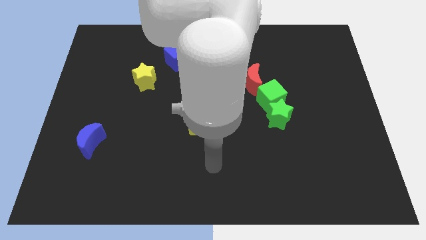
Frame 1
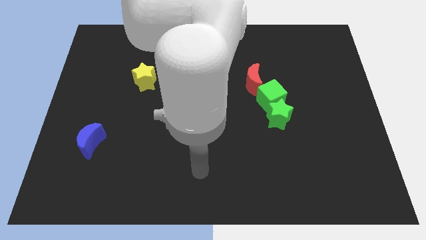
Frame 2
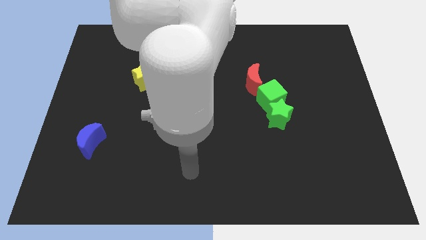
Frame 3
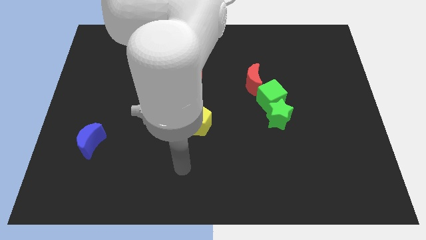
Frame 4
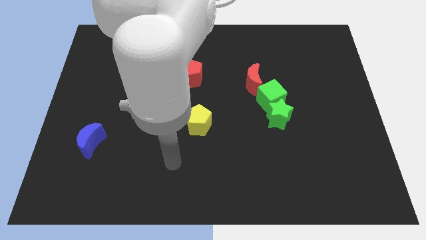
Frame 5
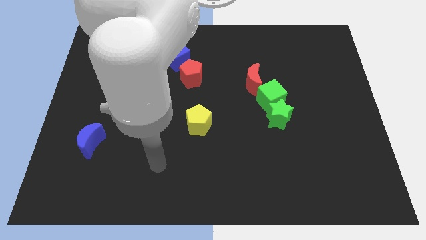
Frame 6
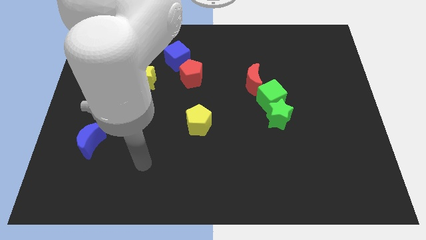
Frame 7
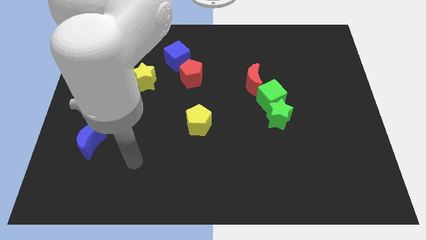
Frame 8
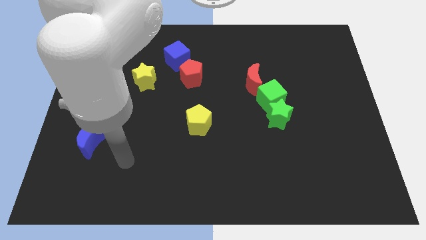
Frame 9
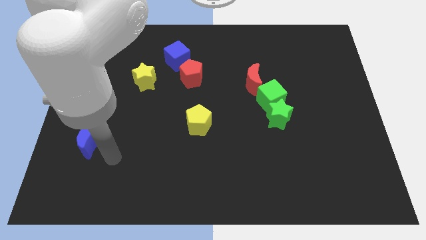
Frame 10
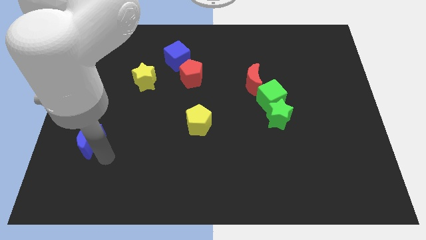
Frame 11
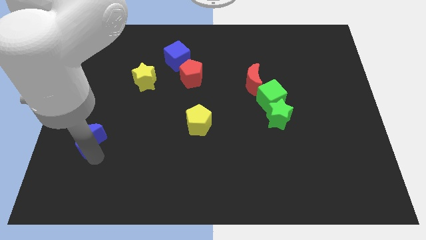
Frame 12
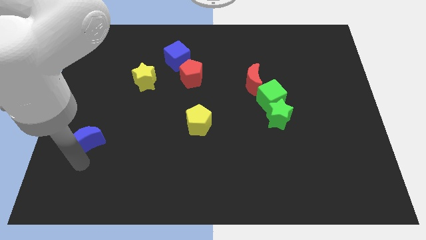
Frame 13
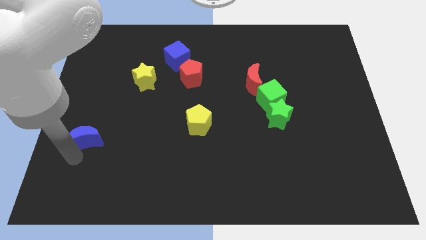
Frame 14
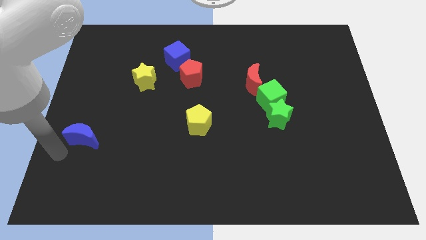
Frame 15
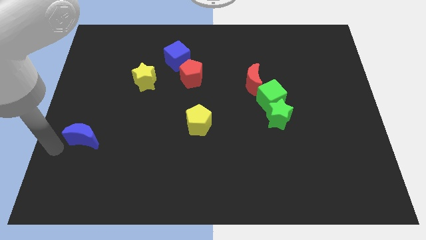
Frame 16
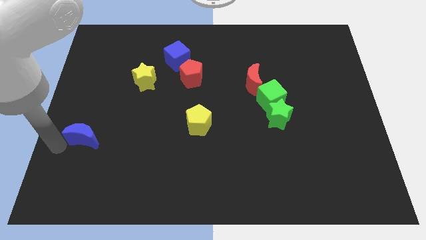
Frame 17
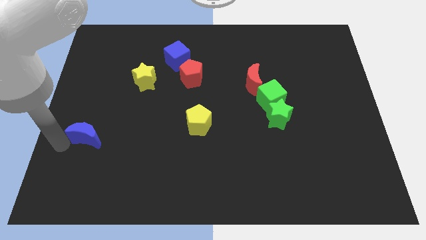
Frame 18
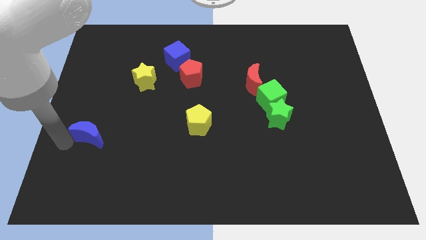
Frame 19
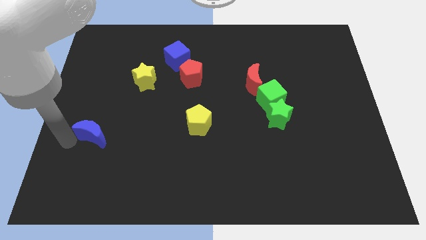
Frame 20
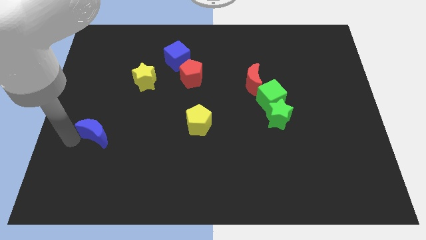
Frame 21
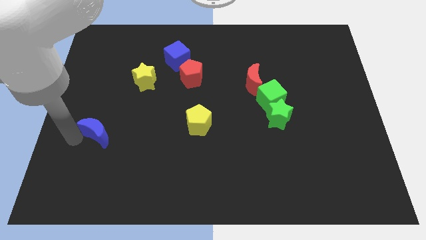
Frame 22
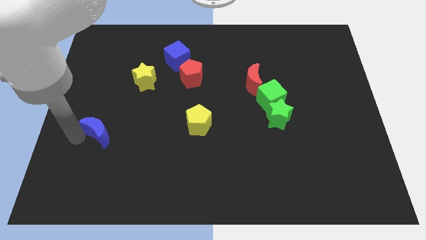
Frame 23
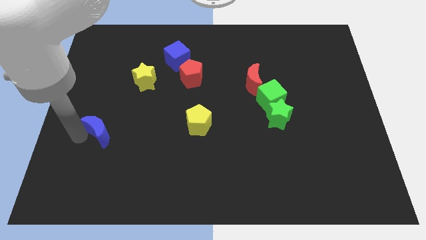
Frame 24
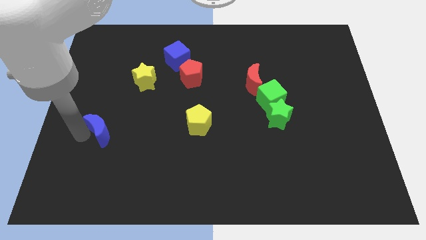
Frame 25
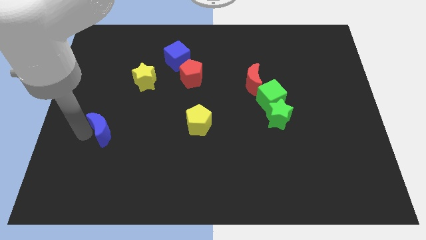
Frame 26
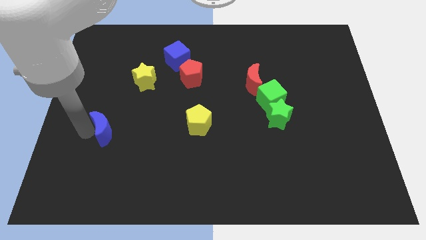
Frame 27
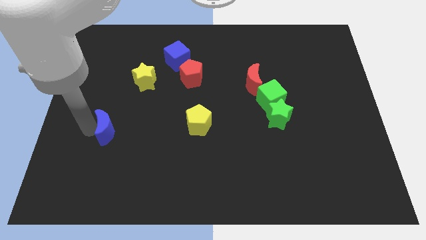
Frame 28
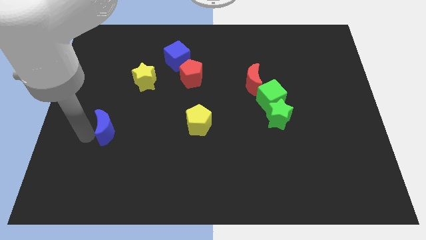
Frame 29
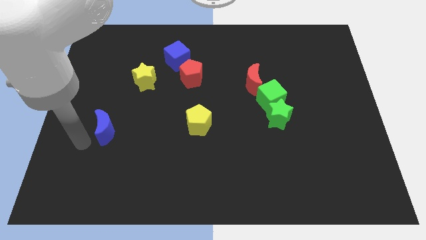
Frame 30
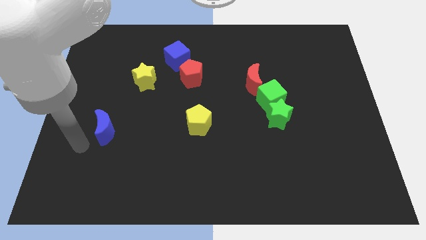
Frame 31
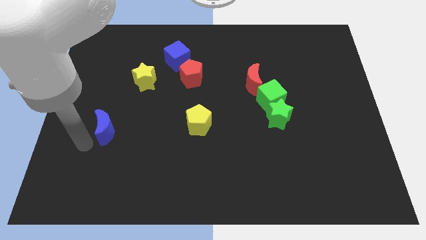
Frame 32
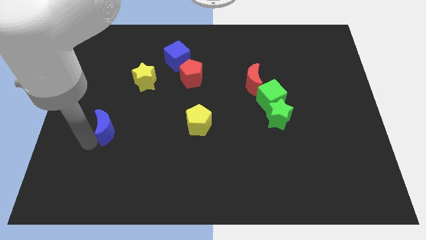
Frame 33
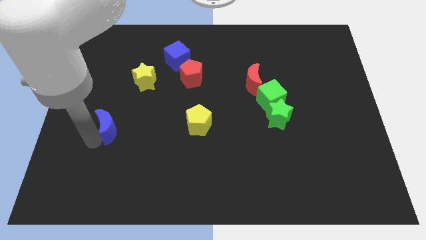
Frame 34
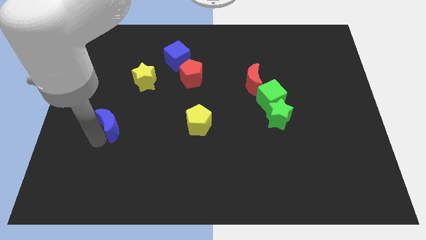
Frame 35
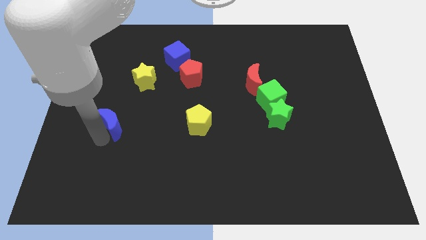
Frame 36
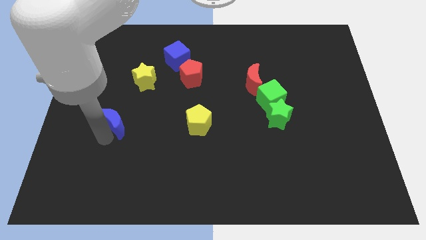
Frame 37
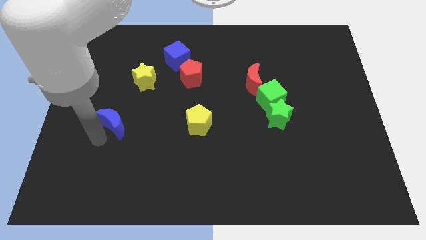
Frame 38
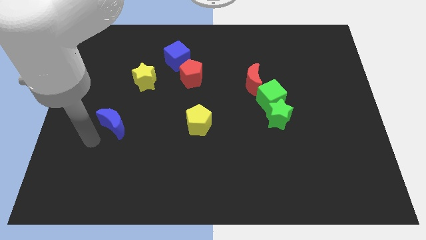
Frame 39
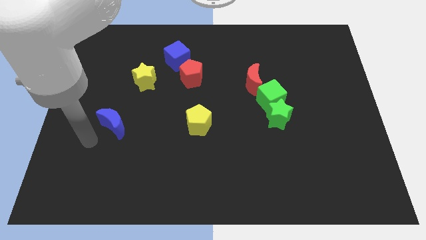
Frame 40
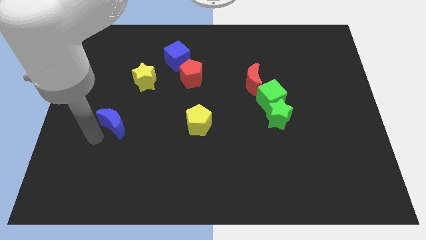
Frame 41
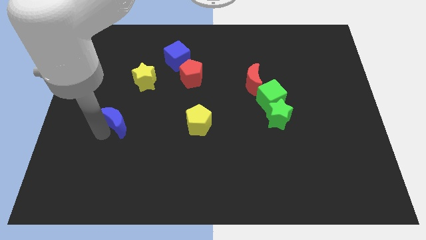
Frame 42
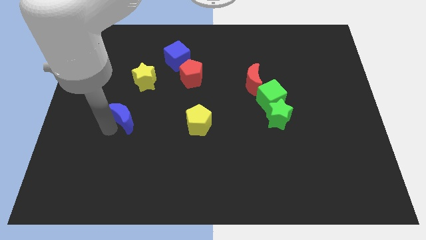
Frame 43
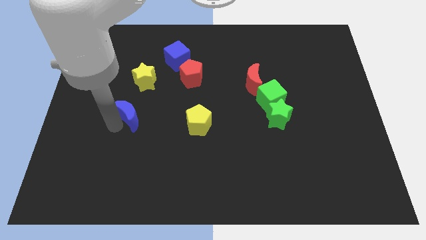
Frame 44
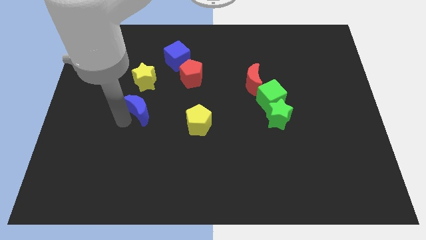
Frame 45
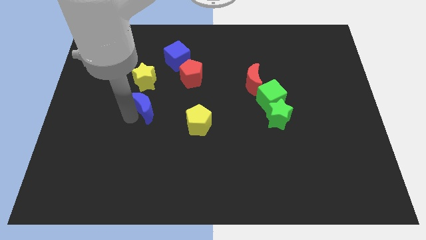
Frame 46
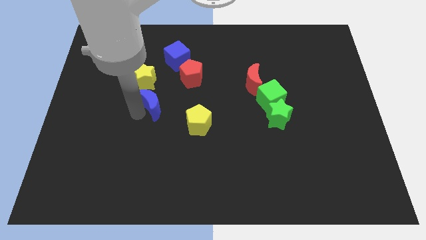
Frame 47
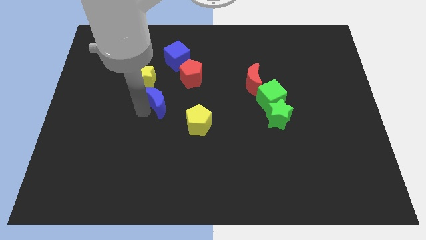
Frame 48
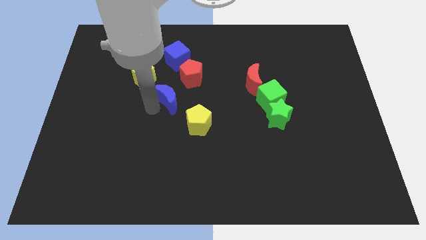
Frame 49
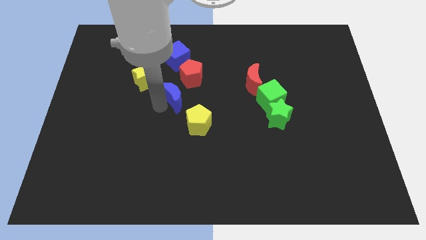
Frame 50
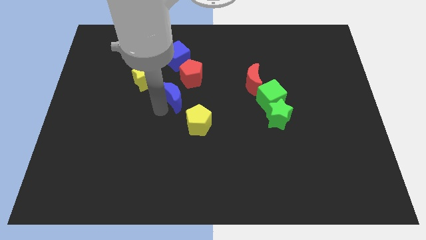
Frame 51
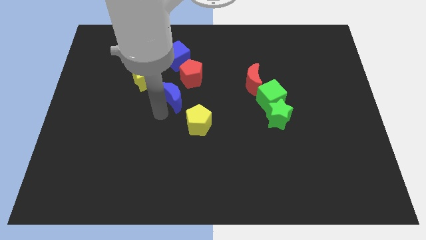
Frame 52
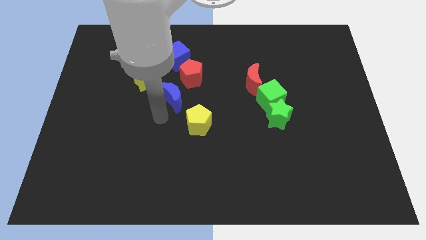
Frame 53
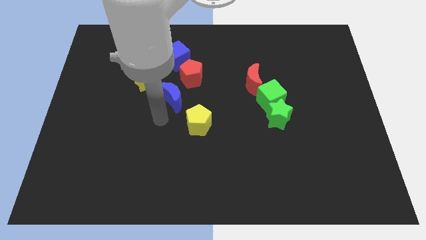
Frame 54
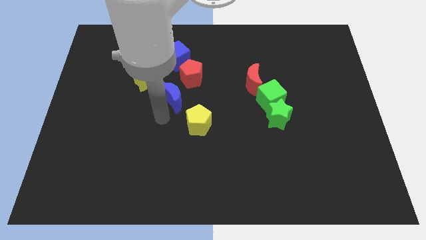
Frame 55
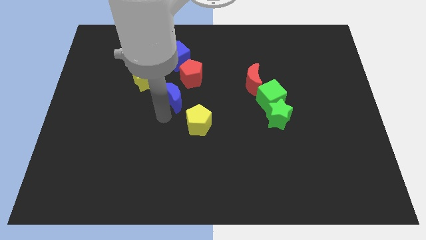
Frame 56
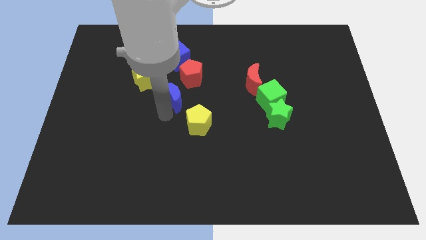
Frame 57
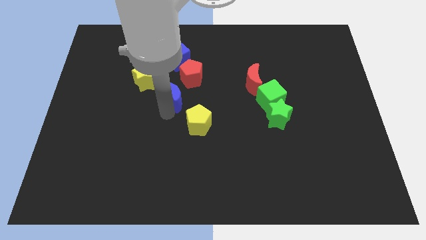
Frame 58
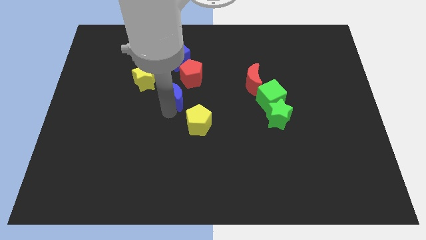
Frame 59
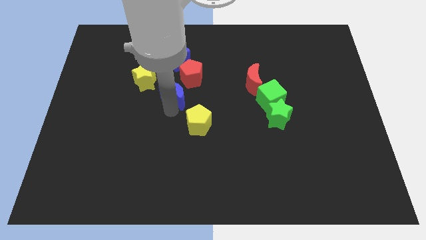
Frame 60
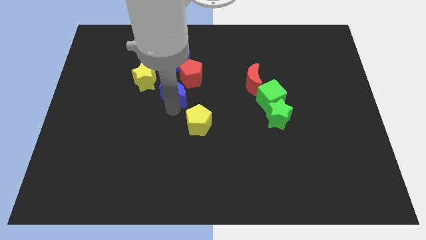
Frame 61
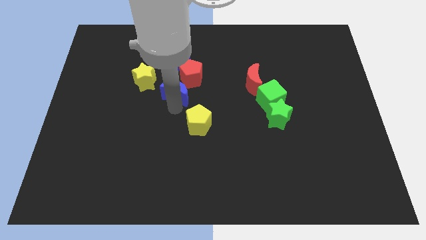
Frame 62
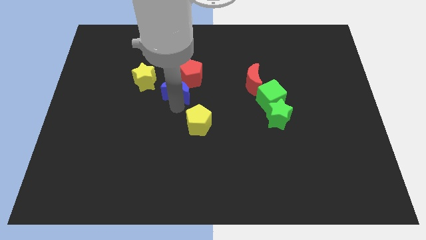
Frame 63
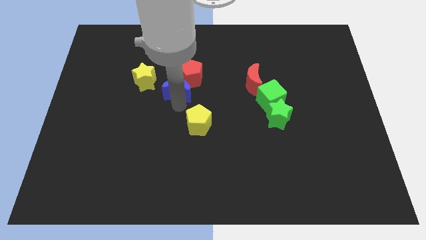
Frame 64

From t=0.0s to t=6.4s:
slide the blue moon close to the red pentagon
